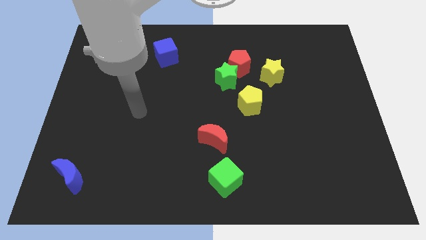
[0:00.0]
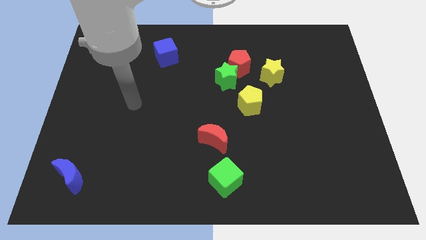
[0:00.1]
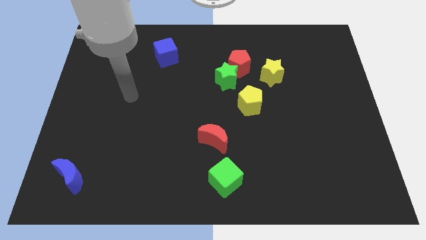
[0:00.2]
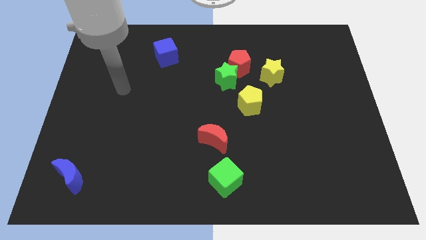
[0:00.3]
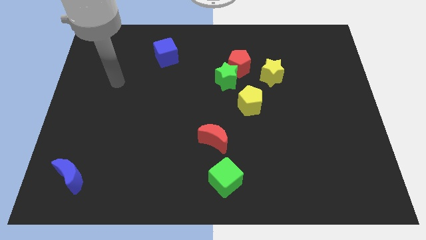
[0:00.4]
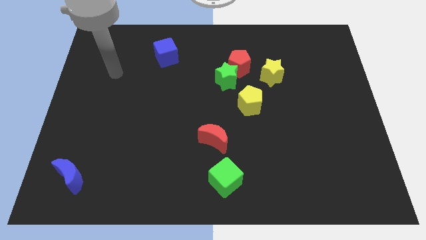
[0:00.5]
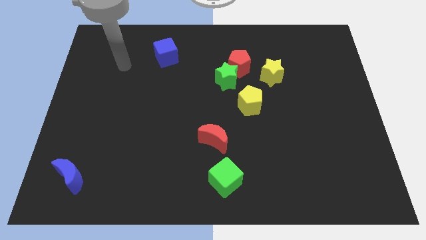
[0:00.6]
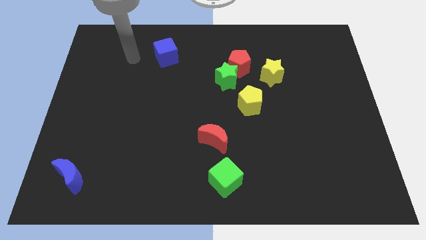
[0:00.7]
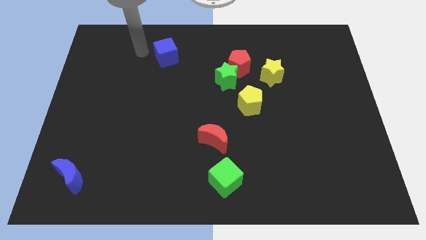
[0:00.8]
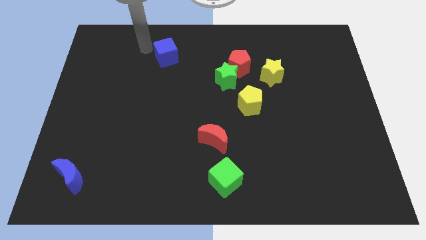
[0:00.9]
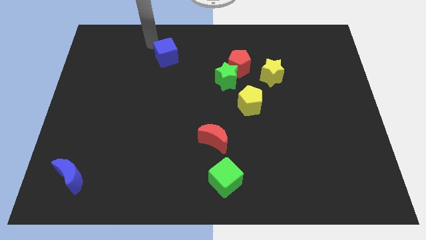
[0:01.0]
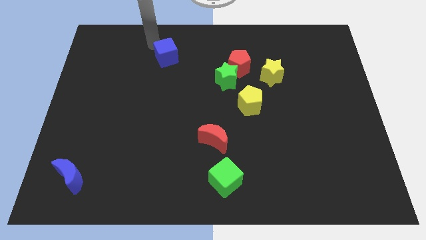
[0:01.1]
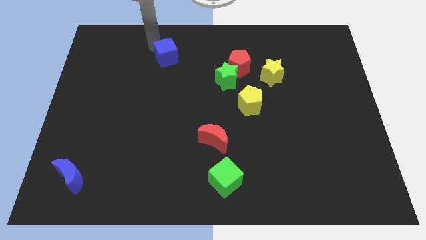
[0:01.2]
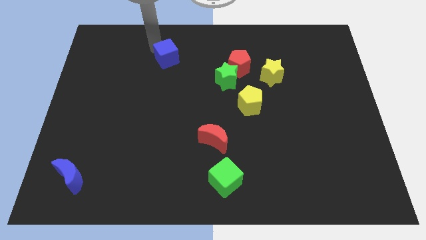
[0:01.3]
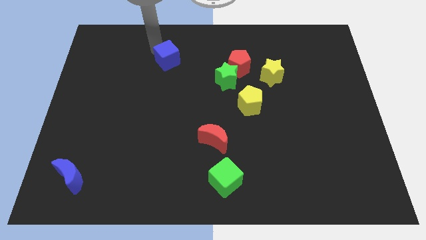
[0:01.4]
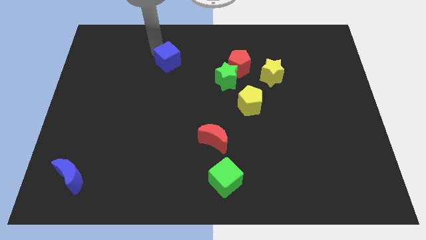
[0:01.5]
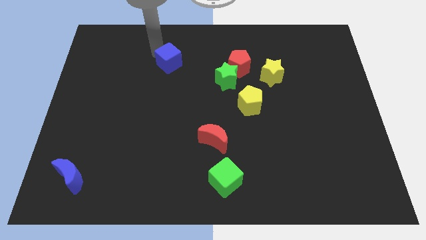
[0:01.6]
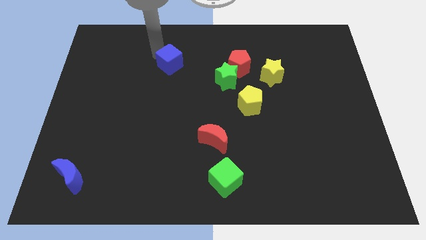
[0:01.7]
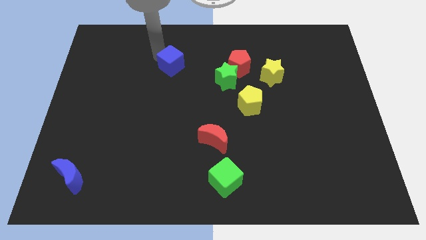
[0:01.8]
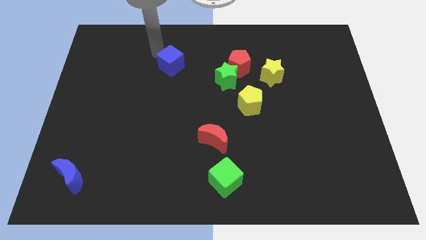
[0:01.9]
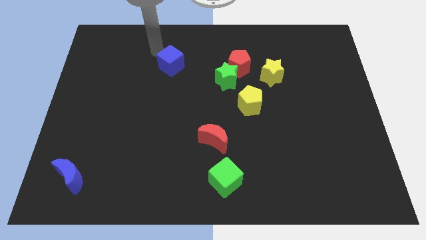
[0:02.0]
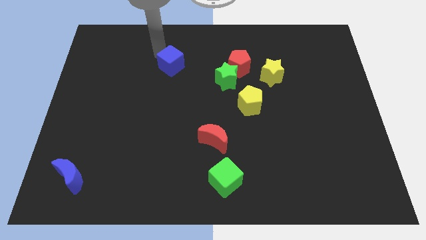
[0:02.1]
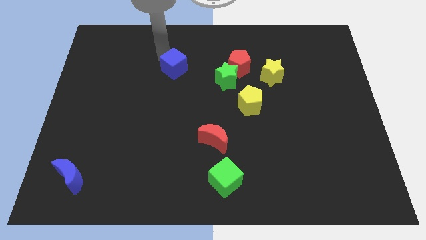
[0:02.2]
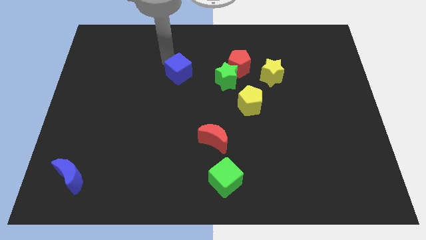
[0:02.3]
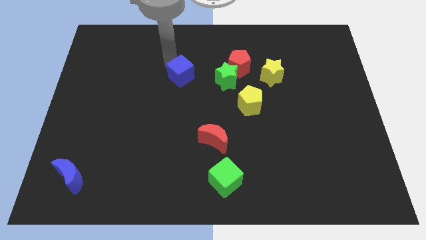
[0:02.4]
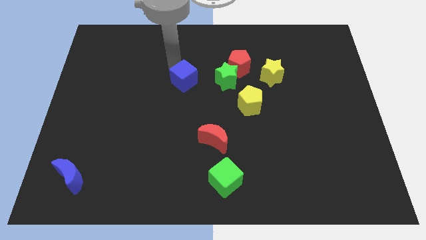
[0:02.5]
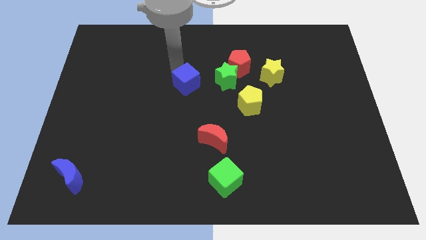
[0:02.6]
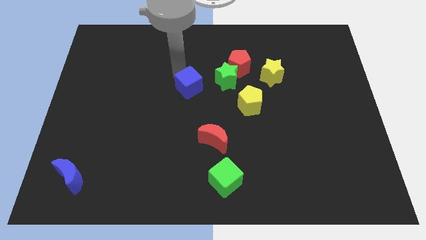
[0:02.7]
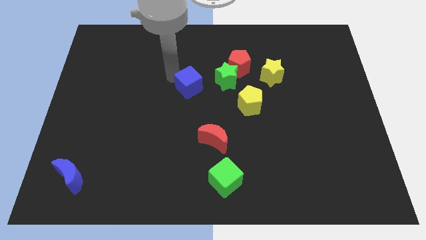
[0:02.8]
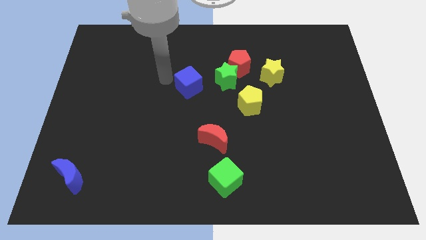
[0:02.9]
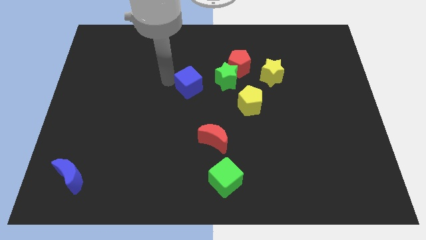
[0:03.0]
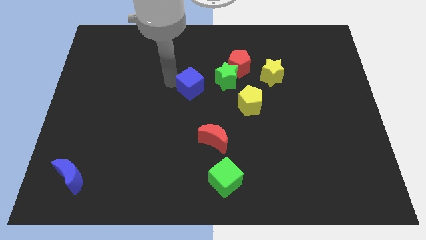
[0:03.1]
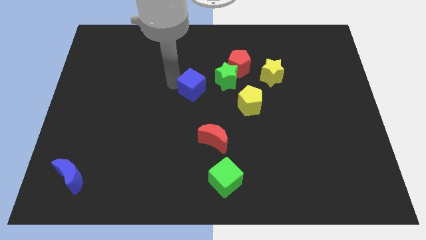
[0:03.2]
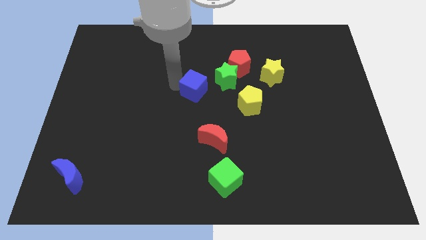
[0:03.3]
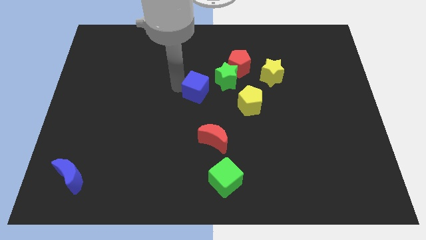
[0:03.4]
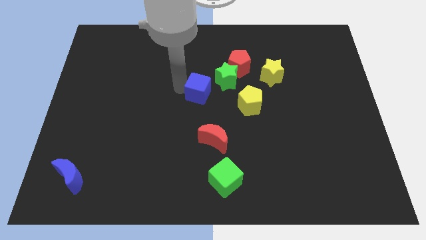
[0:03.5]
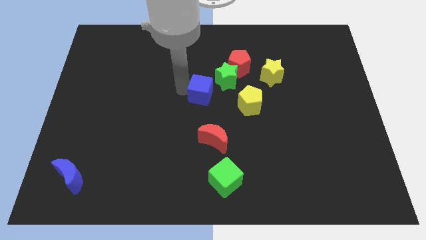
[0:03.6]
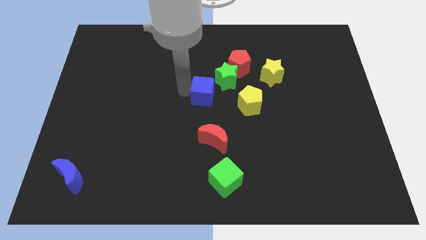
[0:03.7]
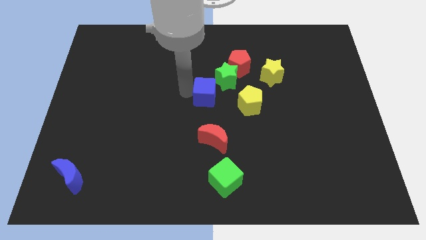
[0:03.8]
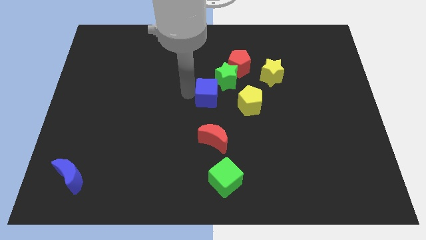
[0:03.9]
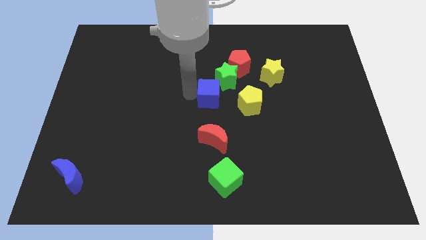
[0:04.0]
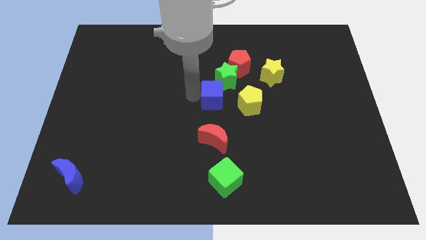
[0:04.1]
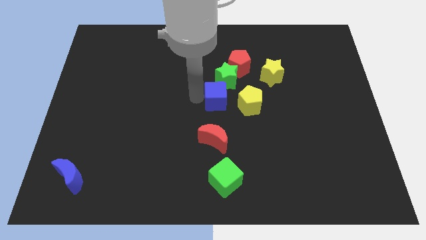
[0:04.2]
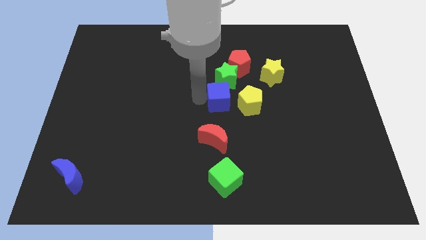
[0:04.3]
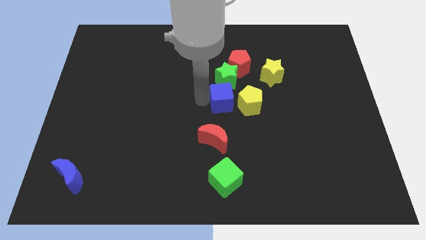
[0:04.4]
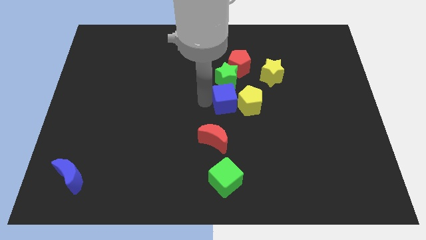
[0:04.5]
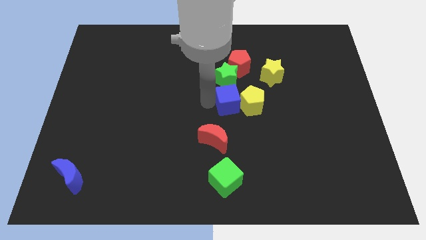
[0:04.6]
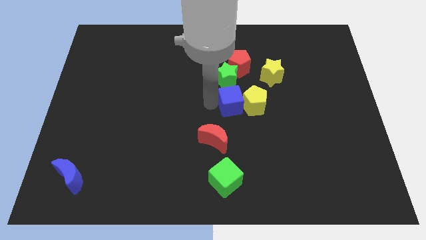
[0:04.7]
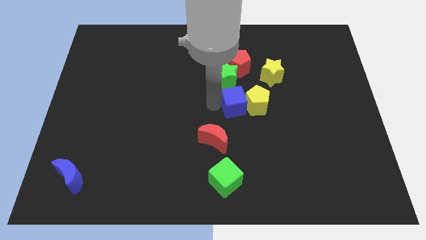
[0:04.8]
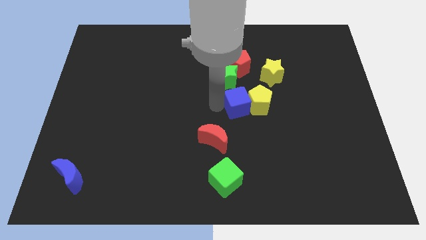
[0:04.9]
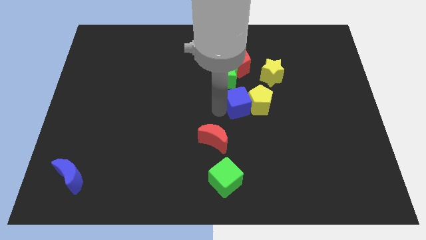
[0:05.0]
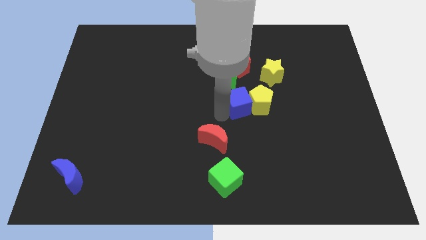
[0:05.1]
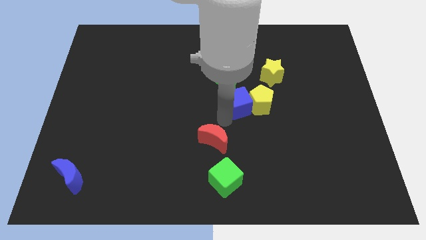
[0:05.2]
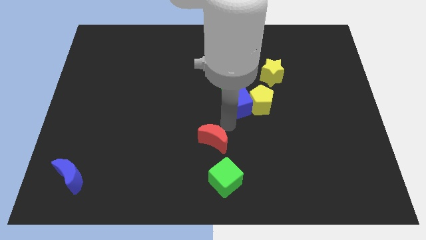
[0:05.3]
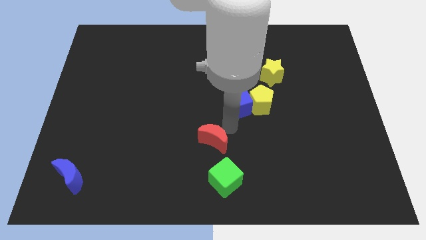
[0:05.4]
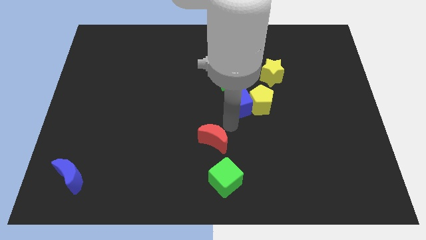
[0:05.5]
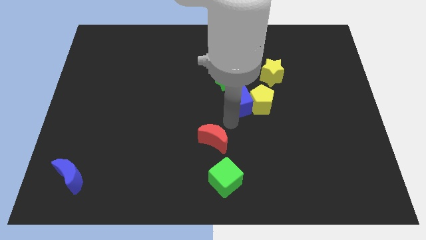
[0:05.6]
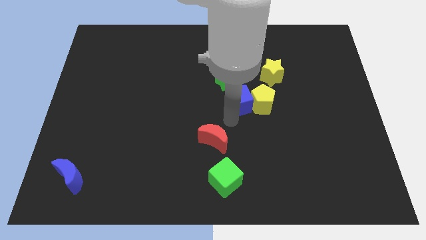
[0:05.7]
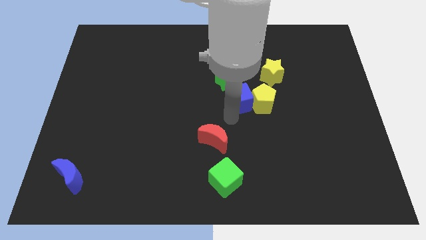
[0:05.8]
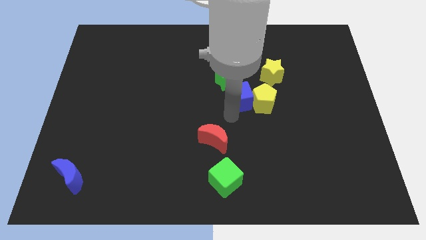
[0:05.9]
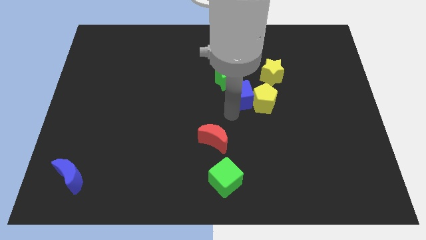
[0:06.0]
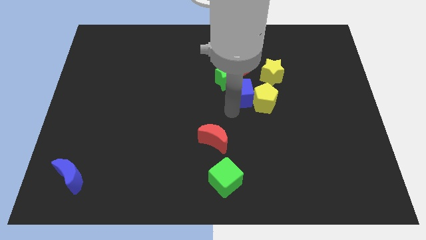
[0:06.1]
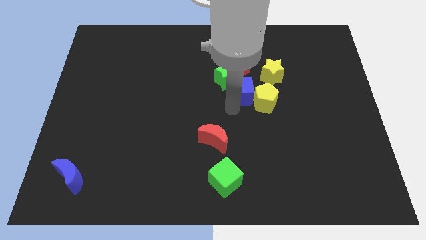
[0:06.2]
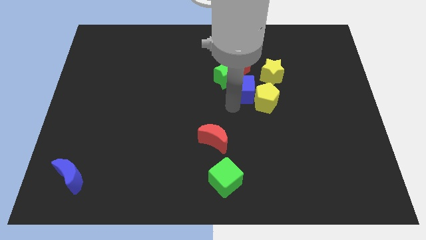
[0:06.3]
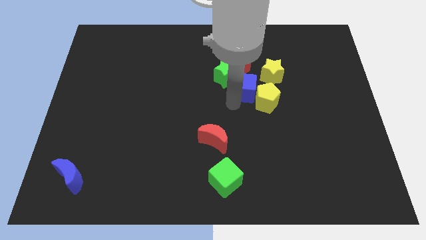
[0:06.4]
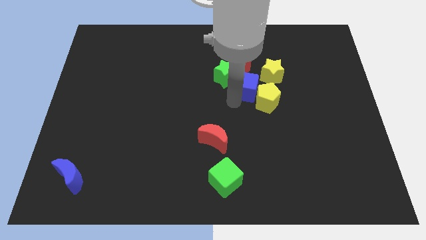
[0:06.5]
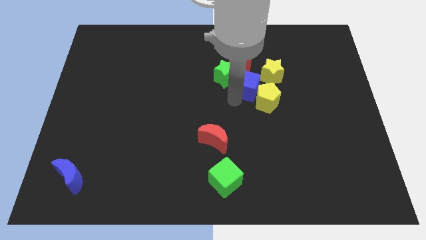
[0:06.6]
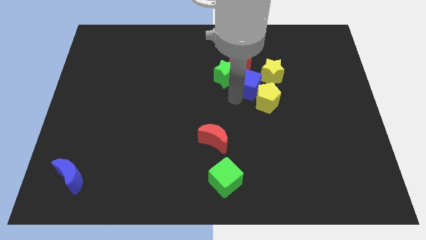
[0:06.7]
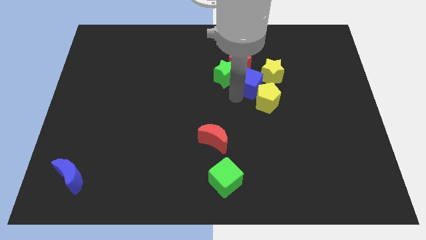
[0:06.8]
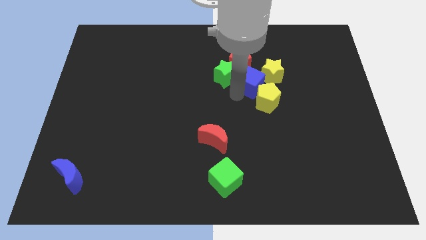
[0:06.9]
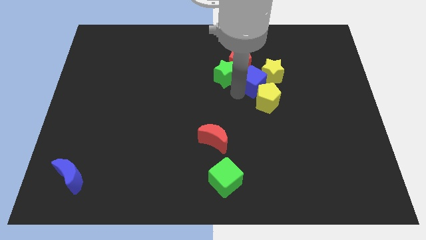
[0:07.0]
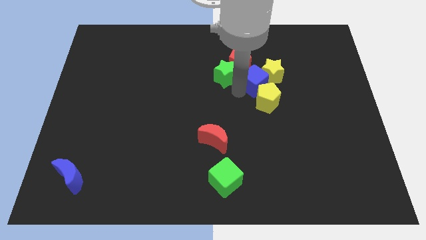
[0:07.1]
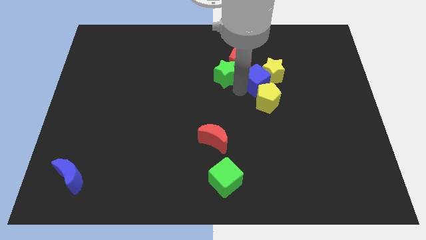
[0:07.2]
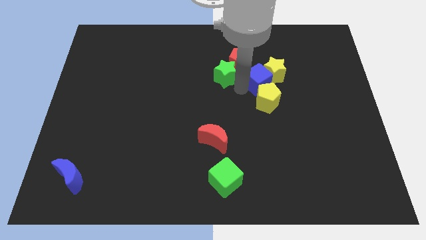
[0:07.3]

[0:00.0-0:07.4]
move the blue cube to the bottom side of the yellow star

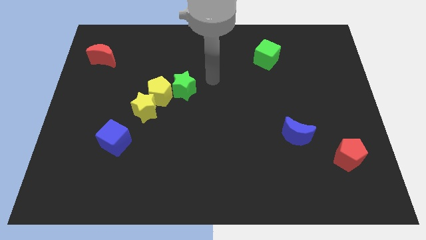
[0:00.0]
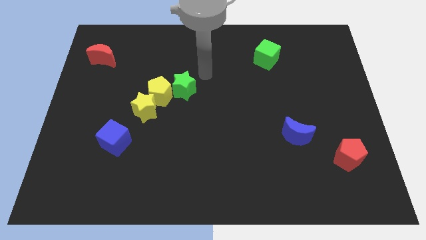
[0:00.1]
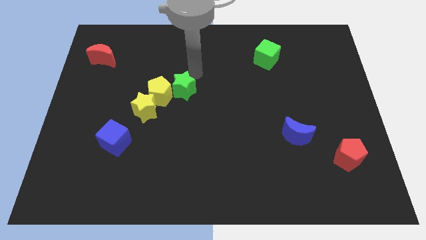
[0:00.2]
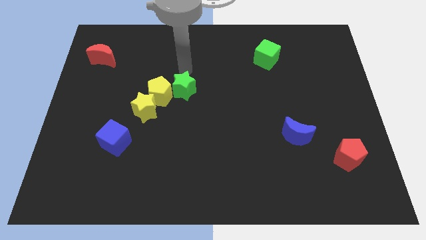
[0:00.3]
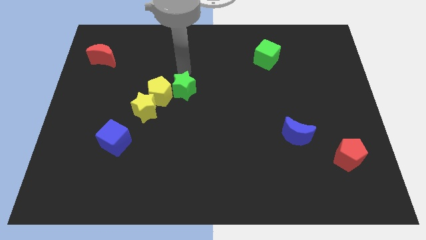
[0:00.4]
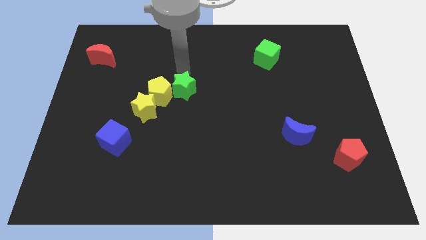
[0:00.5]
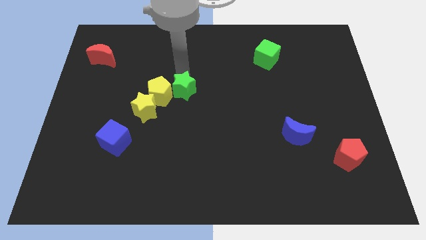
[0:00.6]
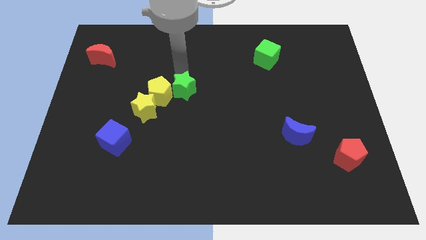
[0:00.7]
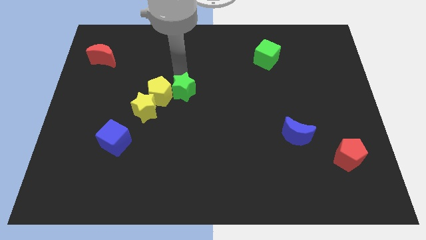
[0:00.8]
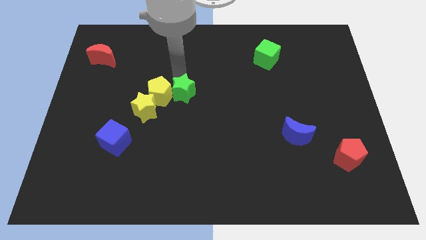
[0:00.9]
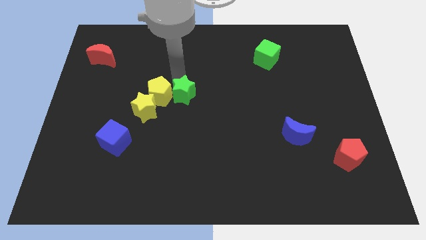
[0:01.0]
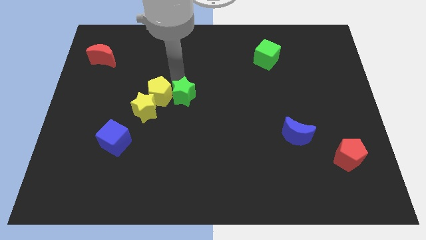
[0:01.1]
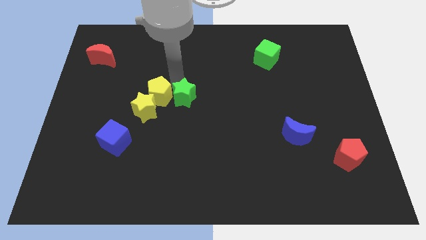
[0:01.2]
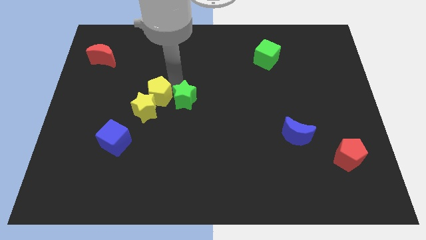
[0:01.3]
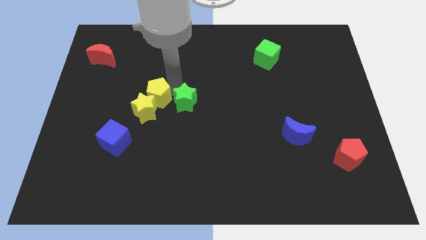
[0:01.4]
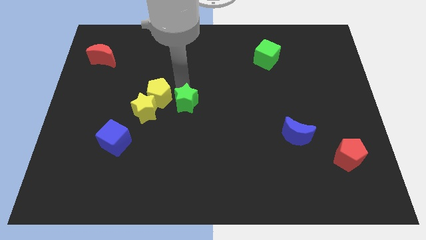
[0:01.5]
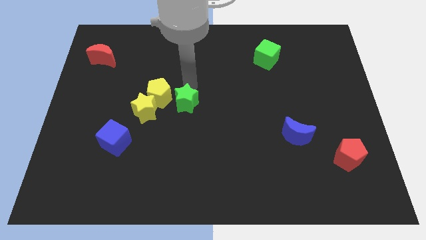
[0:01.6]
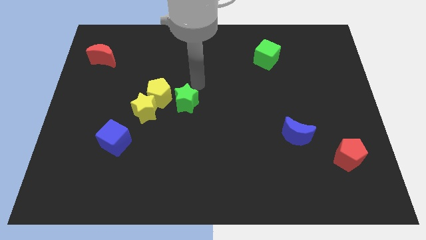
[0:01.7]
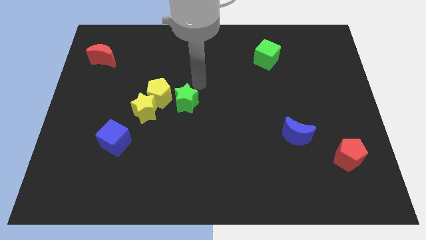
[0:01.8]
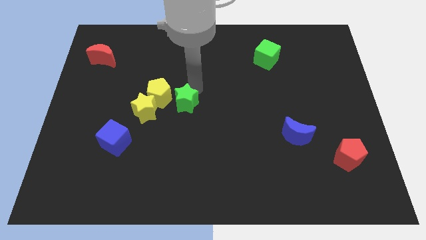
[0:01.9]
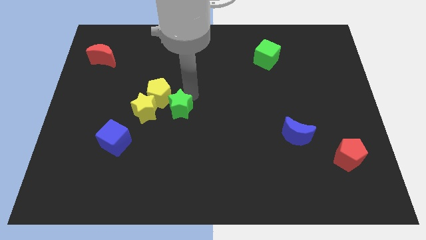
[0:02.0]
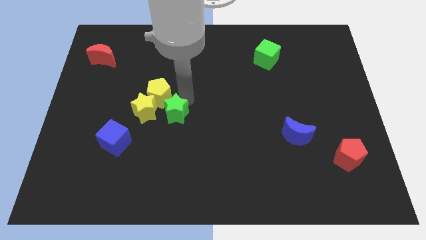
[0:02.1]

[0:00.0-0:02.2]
push the green star to the bottom right of the yellow star
